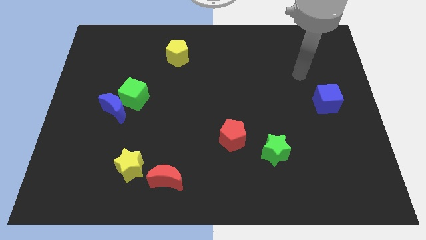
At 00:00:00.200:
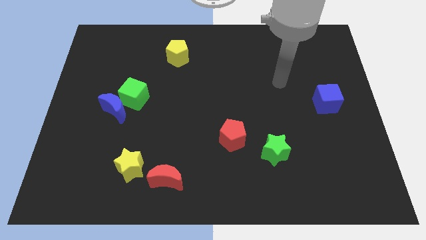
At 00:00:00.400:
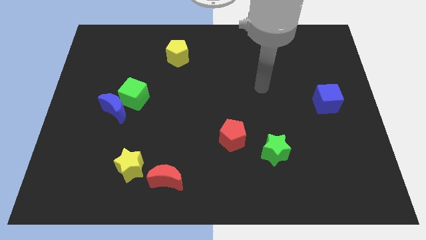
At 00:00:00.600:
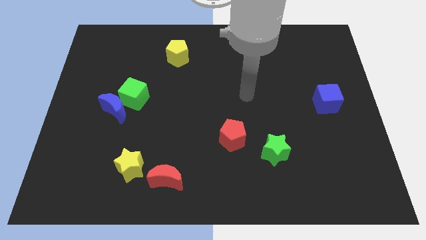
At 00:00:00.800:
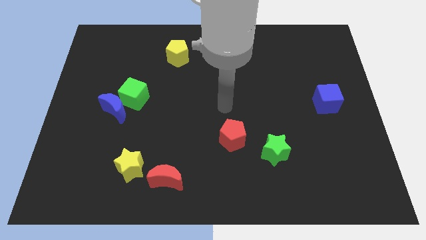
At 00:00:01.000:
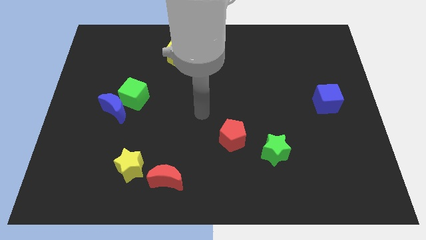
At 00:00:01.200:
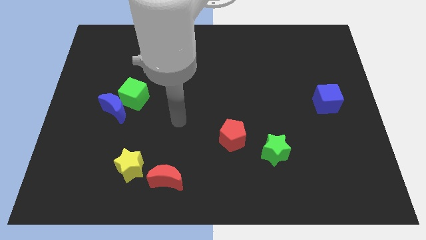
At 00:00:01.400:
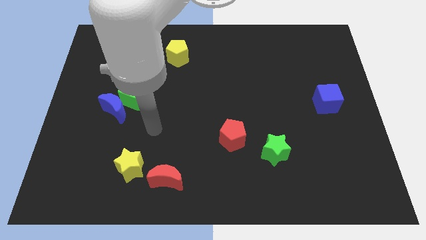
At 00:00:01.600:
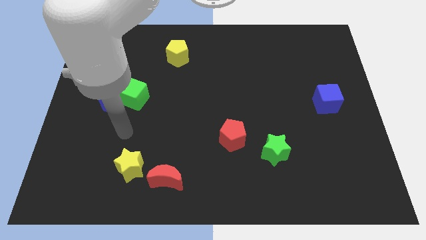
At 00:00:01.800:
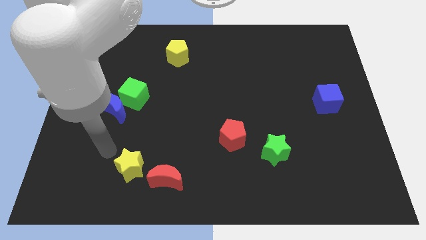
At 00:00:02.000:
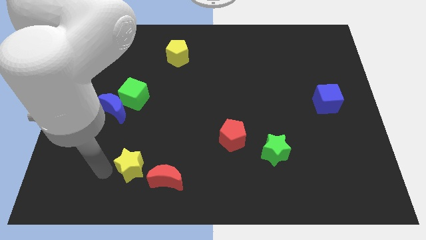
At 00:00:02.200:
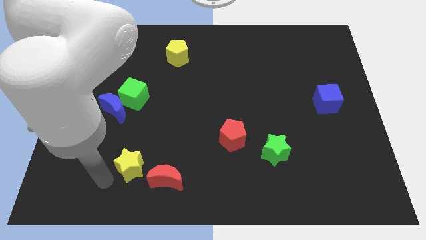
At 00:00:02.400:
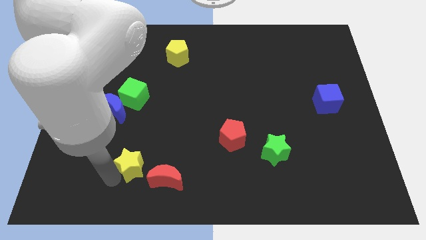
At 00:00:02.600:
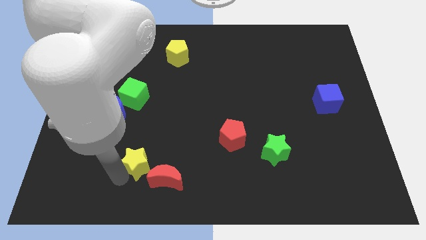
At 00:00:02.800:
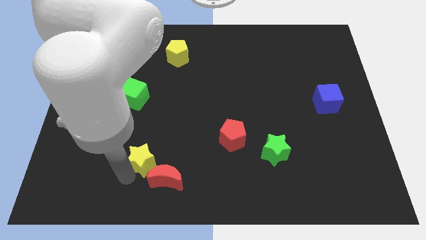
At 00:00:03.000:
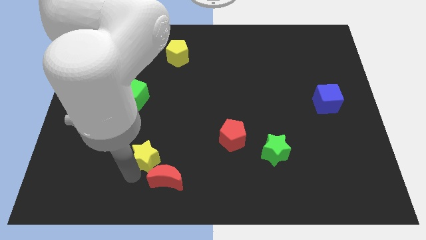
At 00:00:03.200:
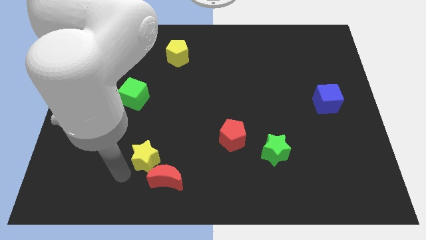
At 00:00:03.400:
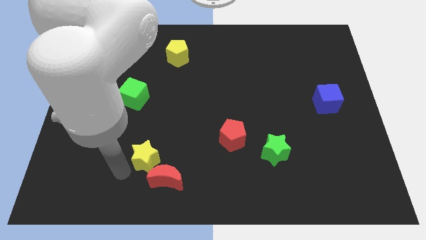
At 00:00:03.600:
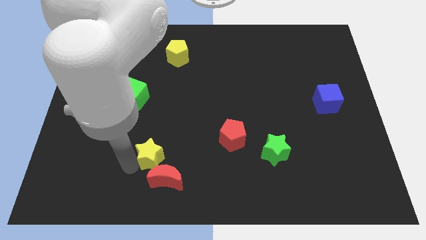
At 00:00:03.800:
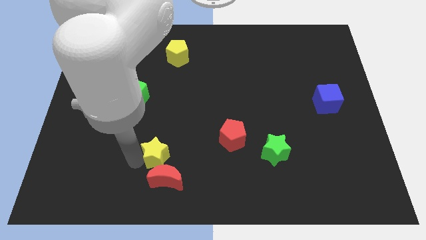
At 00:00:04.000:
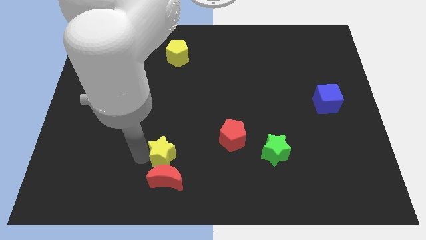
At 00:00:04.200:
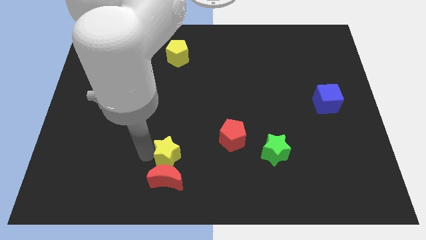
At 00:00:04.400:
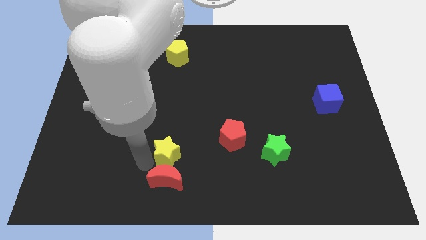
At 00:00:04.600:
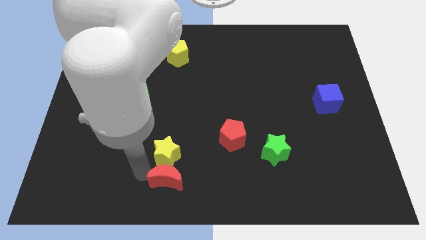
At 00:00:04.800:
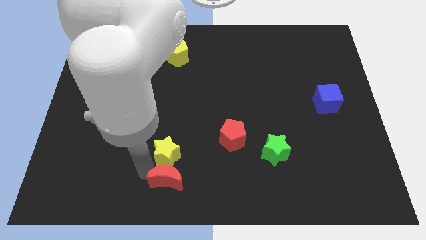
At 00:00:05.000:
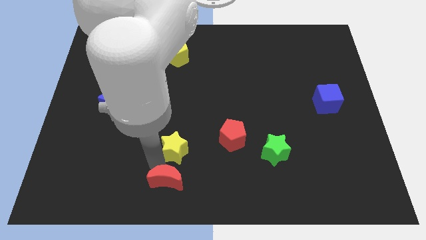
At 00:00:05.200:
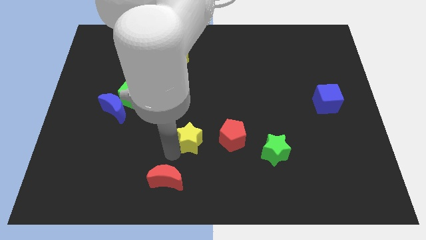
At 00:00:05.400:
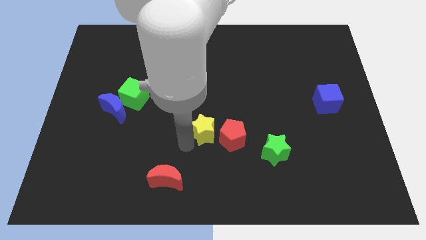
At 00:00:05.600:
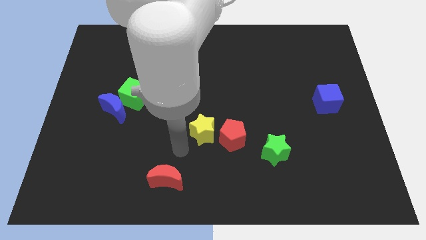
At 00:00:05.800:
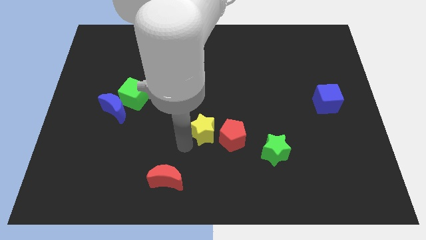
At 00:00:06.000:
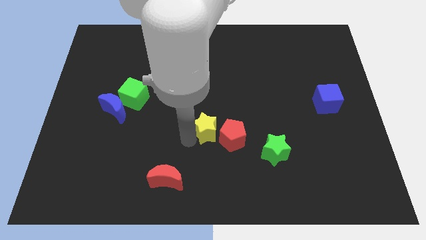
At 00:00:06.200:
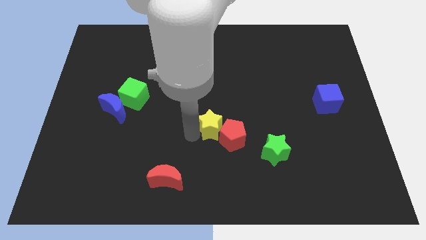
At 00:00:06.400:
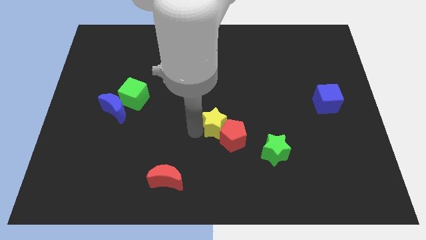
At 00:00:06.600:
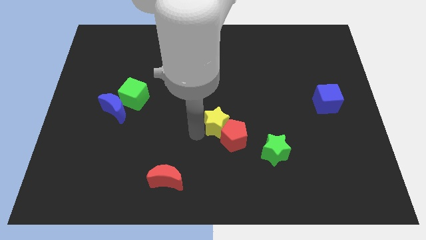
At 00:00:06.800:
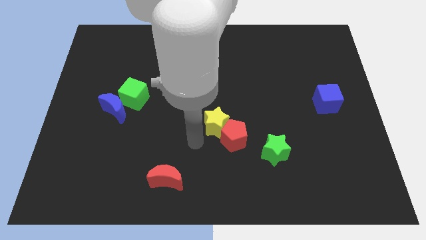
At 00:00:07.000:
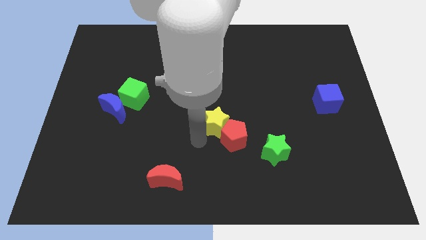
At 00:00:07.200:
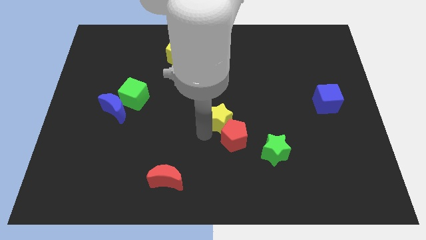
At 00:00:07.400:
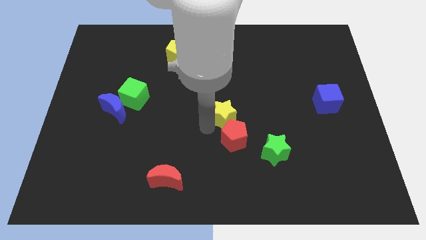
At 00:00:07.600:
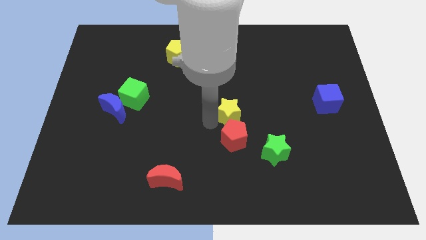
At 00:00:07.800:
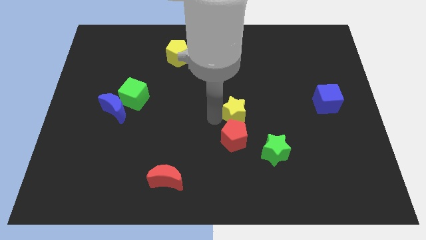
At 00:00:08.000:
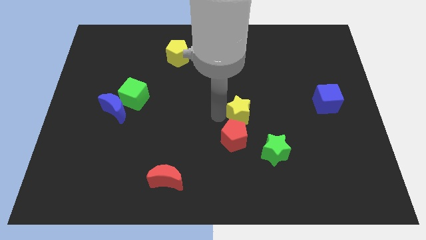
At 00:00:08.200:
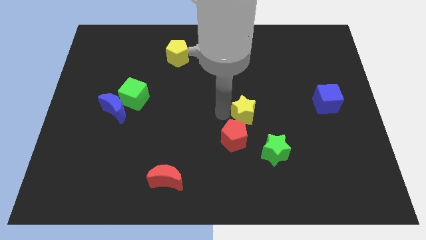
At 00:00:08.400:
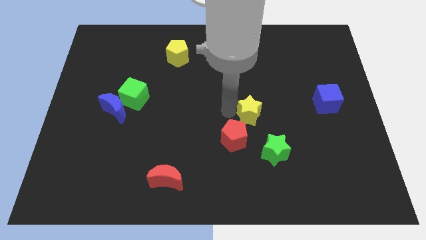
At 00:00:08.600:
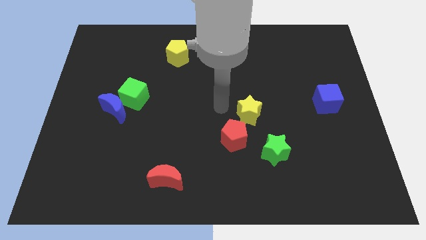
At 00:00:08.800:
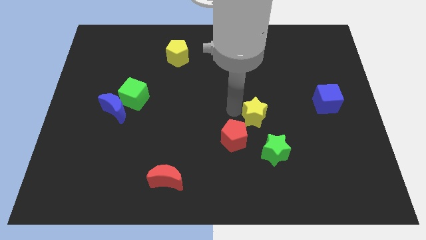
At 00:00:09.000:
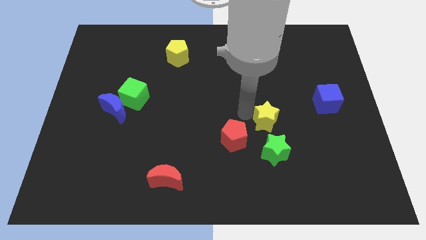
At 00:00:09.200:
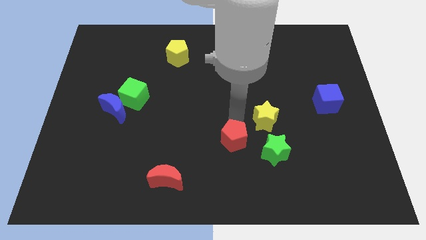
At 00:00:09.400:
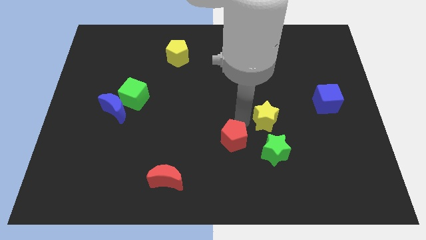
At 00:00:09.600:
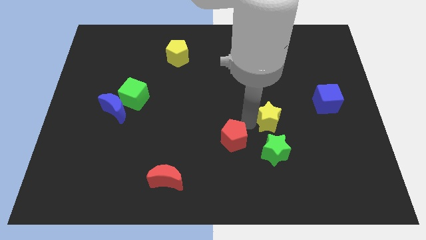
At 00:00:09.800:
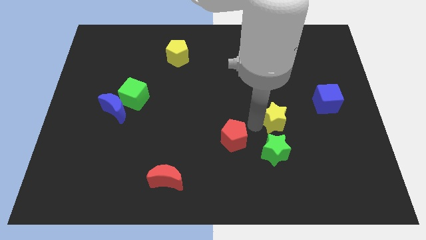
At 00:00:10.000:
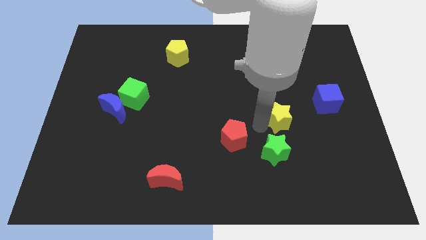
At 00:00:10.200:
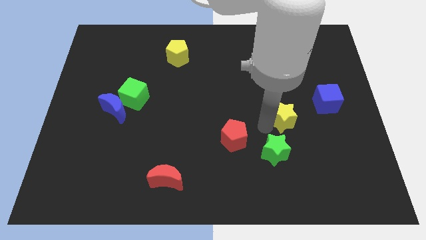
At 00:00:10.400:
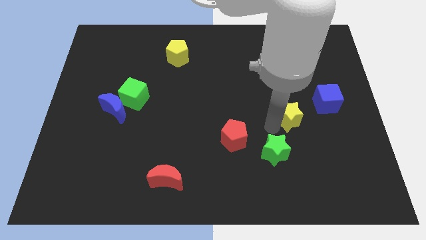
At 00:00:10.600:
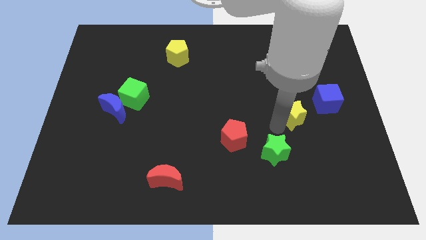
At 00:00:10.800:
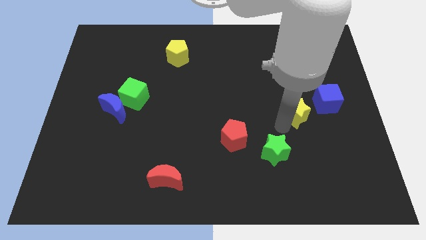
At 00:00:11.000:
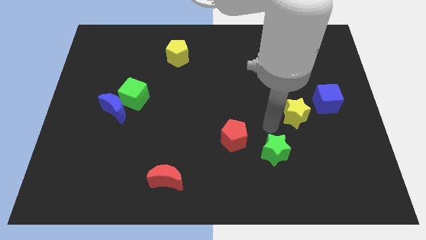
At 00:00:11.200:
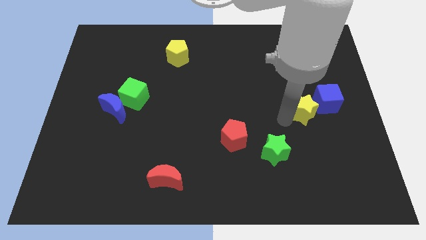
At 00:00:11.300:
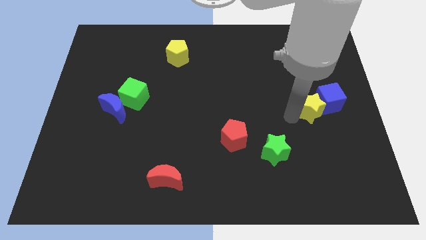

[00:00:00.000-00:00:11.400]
slide the yellow star next to the blue cube

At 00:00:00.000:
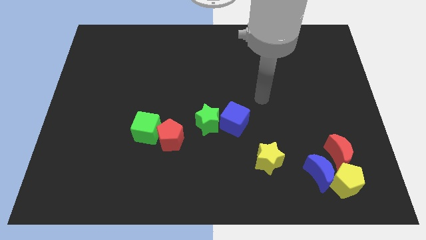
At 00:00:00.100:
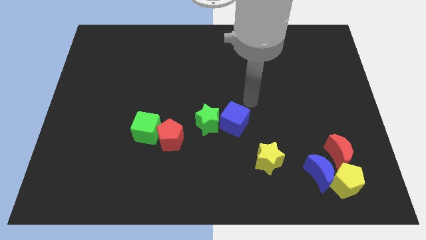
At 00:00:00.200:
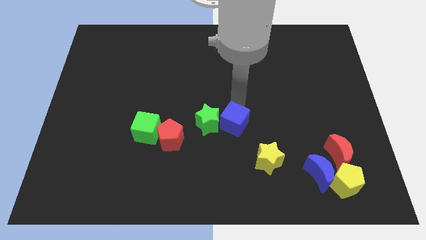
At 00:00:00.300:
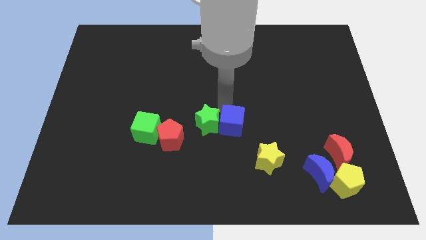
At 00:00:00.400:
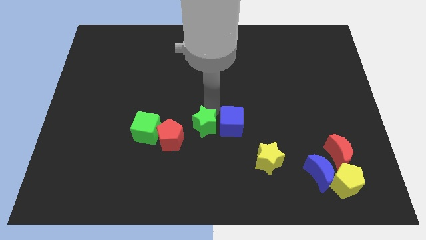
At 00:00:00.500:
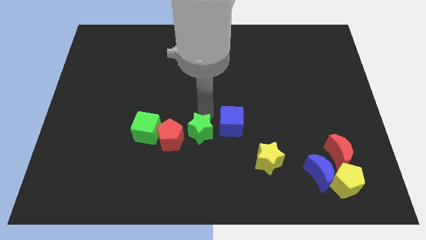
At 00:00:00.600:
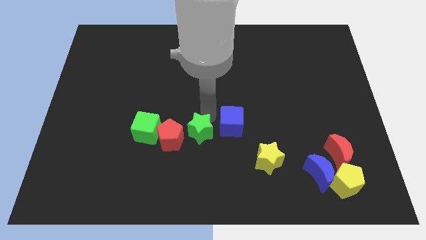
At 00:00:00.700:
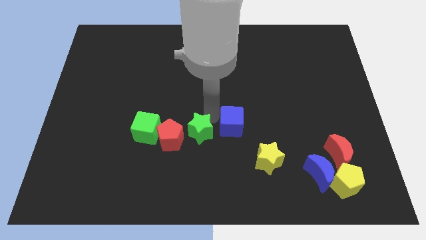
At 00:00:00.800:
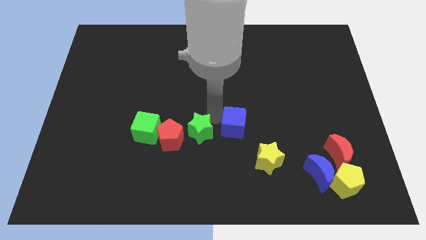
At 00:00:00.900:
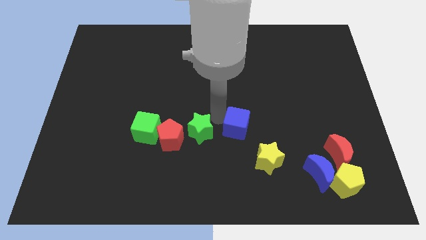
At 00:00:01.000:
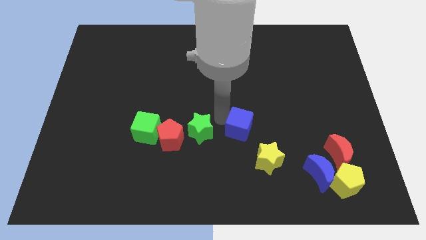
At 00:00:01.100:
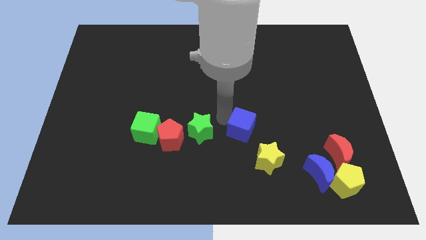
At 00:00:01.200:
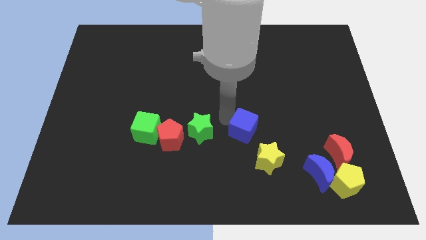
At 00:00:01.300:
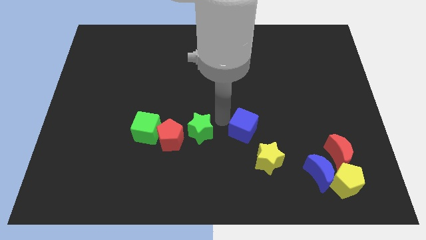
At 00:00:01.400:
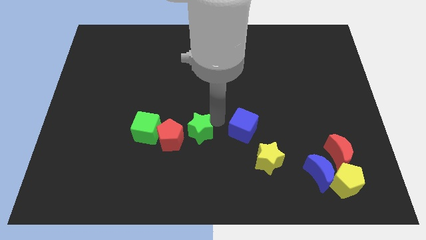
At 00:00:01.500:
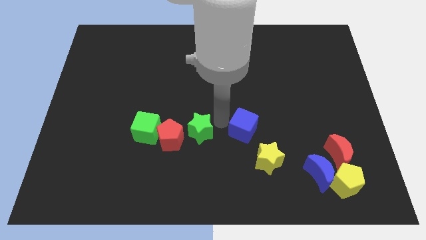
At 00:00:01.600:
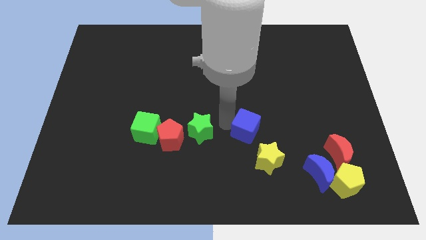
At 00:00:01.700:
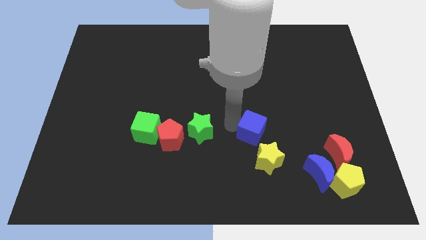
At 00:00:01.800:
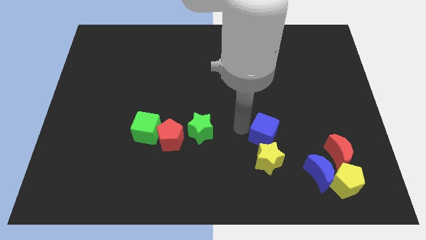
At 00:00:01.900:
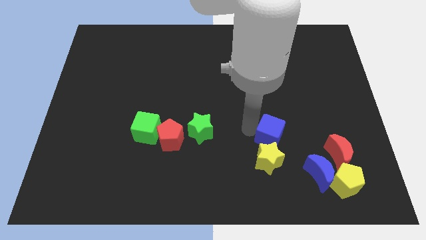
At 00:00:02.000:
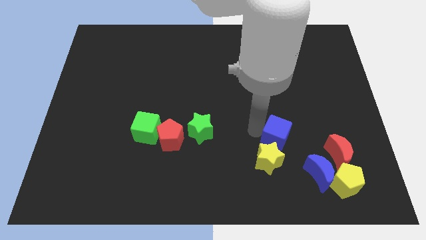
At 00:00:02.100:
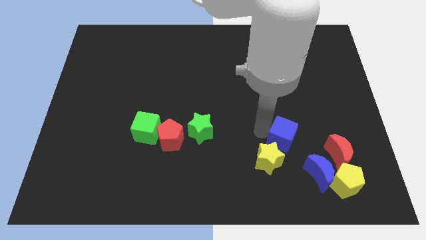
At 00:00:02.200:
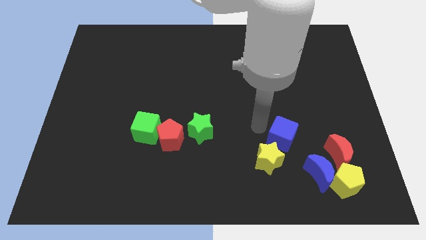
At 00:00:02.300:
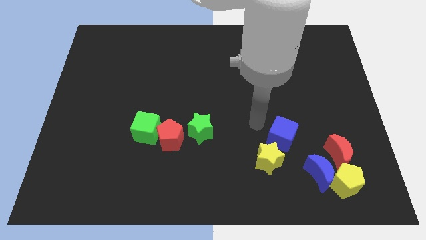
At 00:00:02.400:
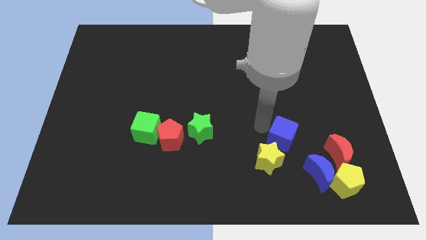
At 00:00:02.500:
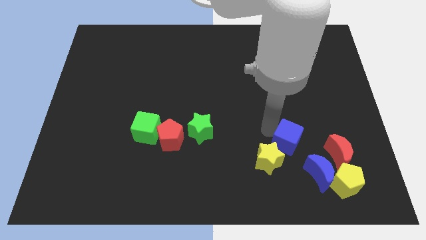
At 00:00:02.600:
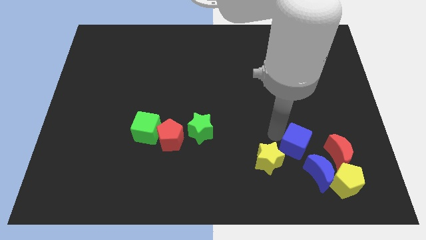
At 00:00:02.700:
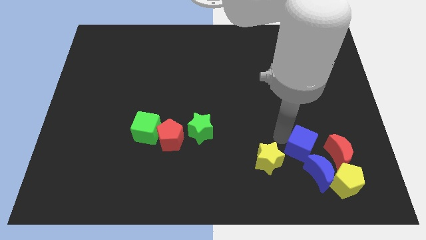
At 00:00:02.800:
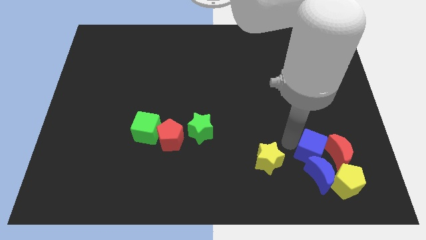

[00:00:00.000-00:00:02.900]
move the blue cube close to the red moon
